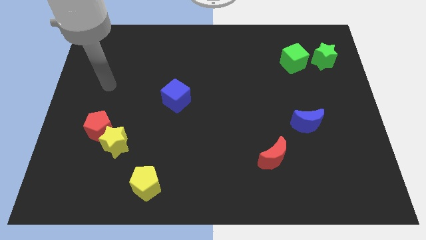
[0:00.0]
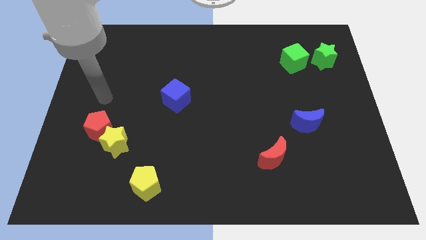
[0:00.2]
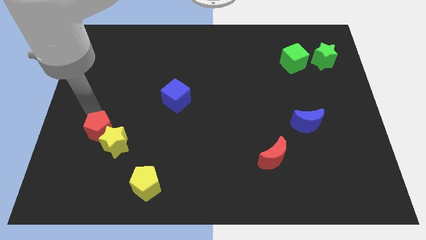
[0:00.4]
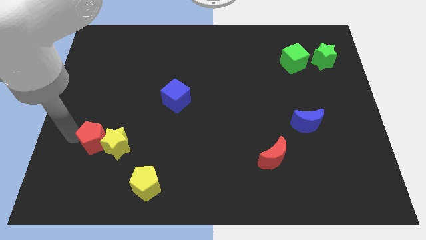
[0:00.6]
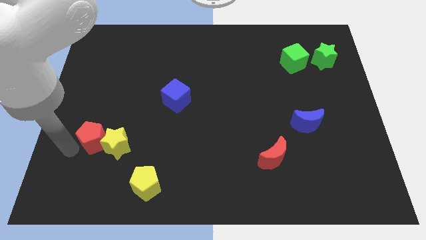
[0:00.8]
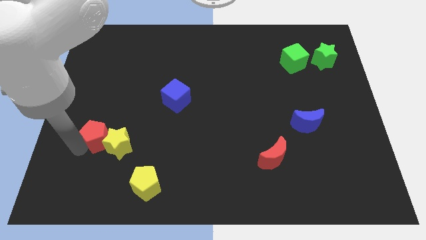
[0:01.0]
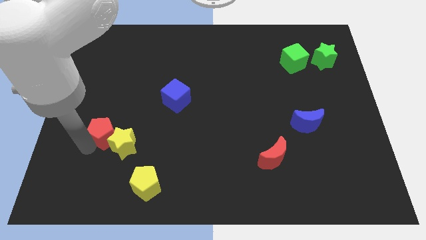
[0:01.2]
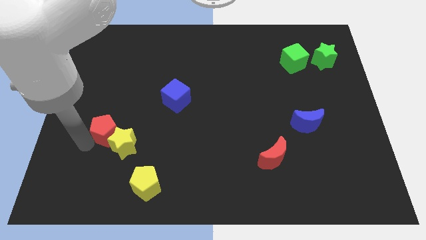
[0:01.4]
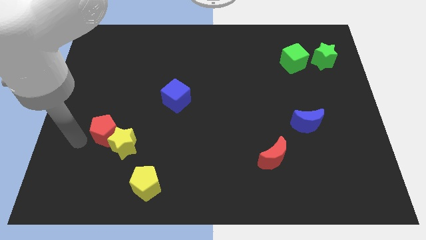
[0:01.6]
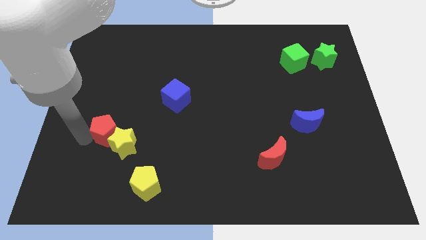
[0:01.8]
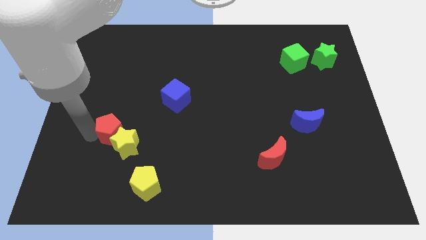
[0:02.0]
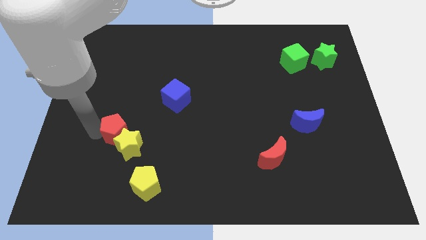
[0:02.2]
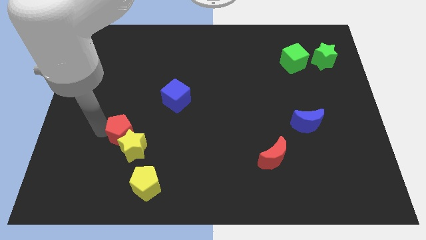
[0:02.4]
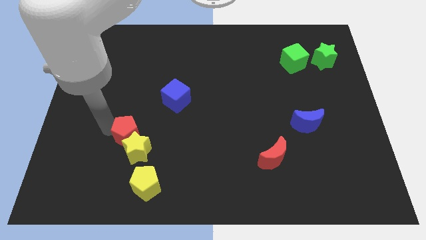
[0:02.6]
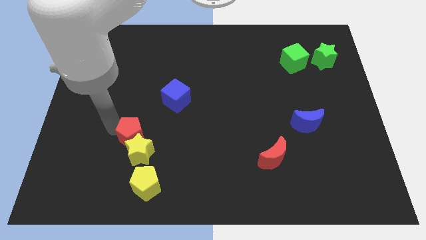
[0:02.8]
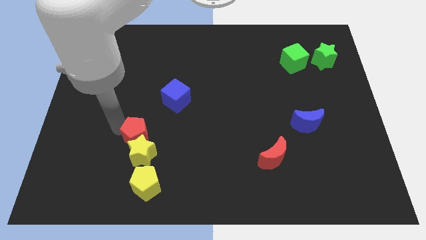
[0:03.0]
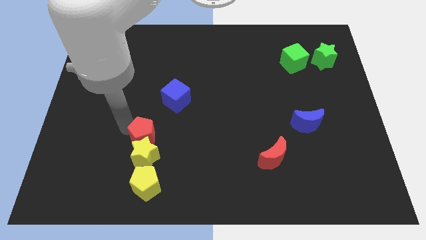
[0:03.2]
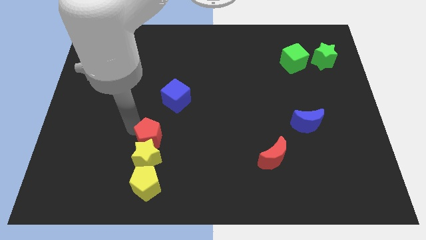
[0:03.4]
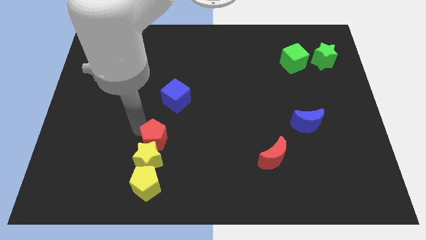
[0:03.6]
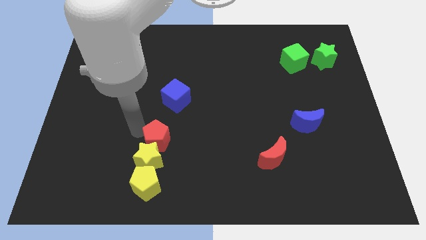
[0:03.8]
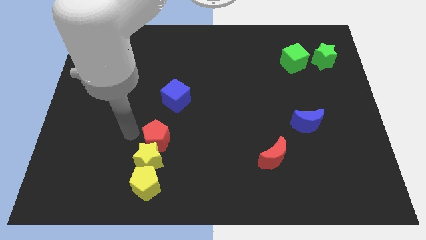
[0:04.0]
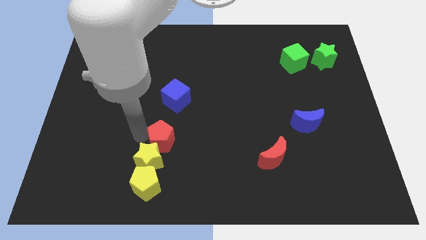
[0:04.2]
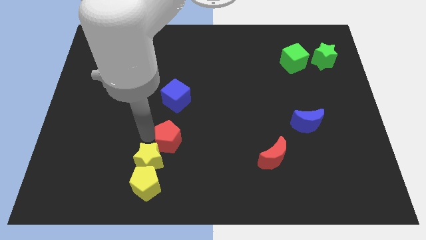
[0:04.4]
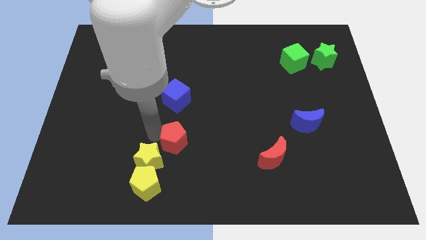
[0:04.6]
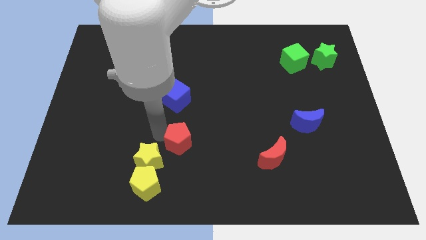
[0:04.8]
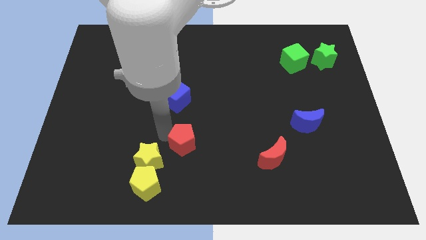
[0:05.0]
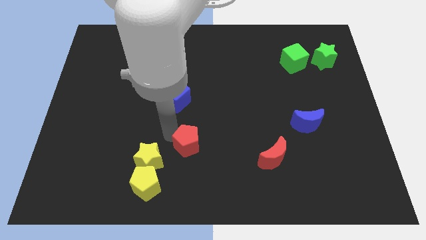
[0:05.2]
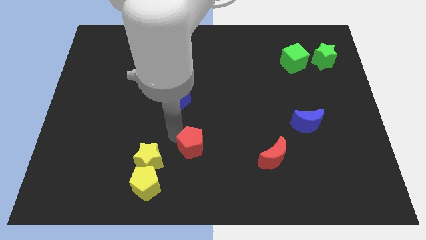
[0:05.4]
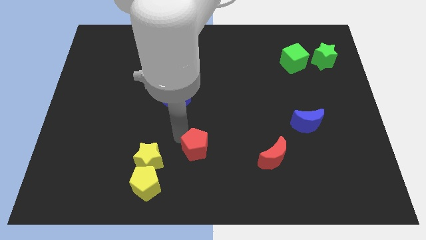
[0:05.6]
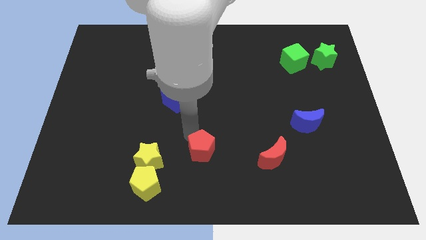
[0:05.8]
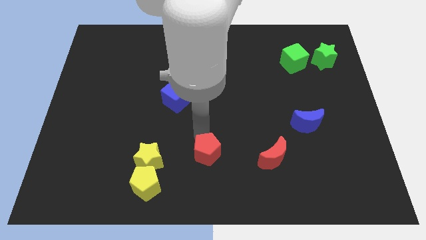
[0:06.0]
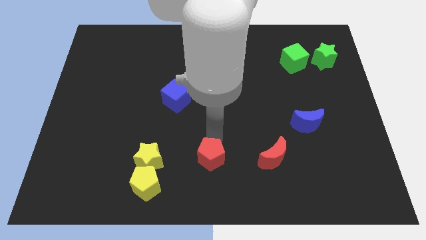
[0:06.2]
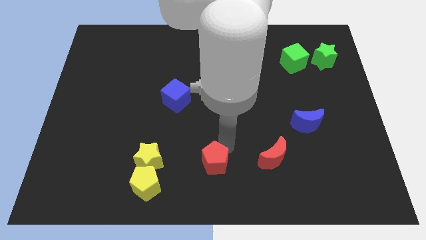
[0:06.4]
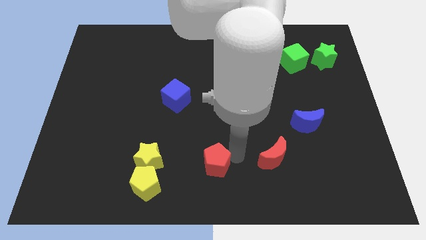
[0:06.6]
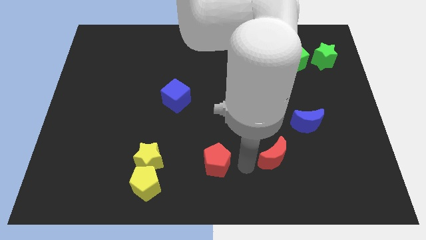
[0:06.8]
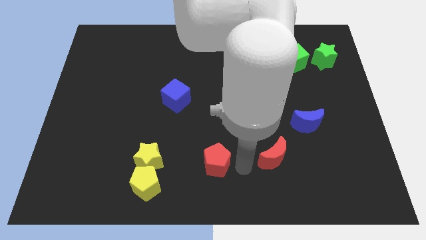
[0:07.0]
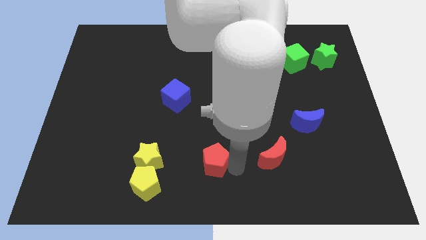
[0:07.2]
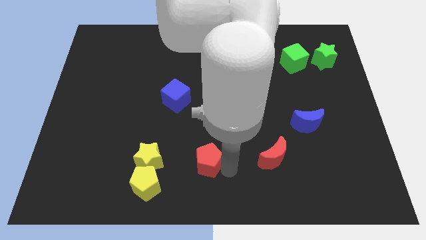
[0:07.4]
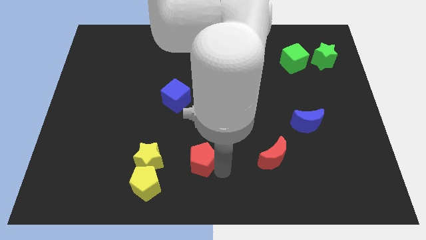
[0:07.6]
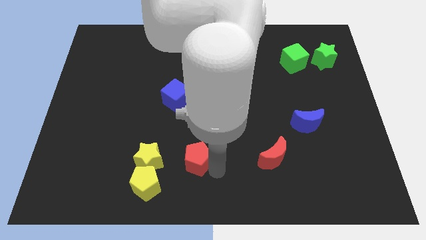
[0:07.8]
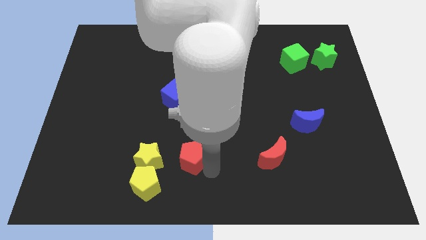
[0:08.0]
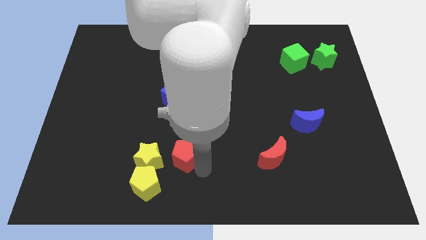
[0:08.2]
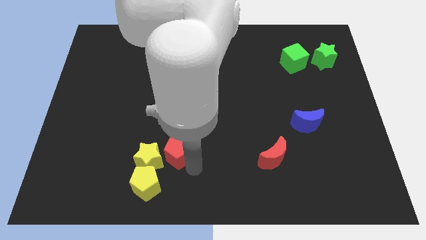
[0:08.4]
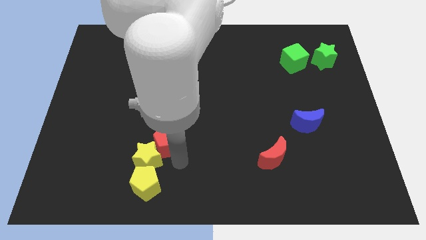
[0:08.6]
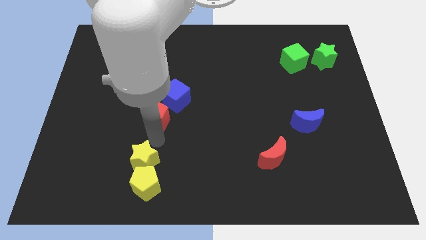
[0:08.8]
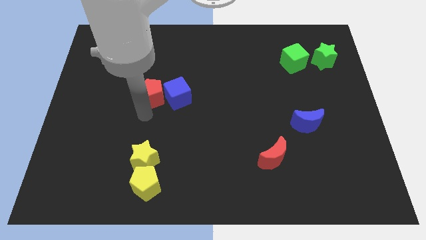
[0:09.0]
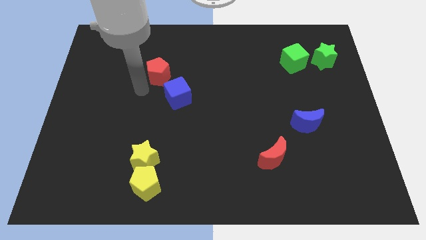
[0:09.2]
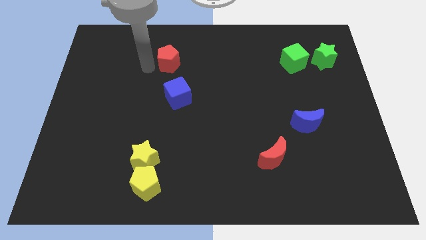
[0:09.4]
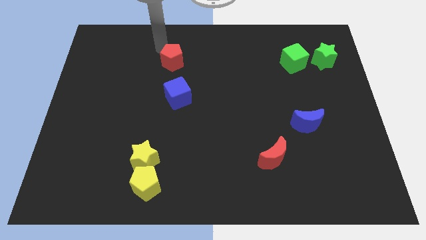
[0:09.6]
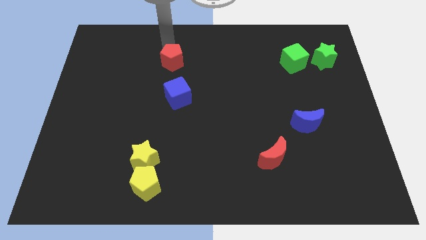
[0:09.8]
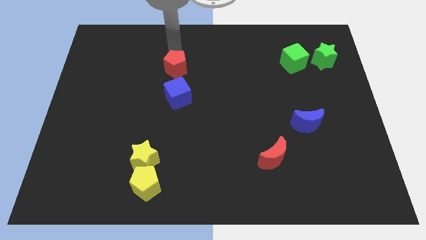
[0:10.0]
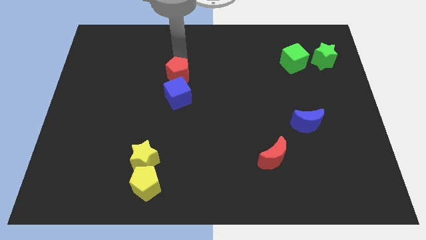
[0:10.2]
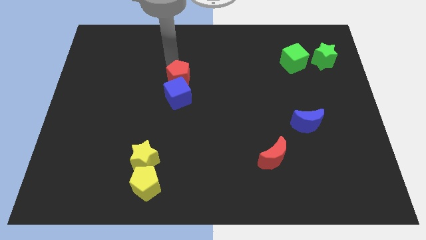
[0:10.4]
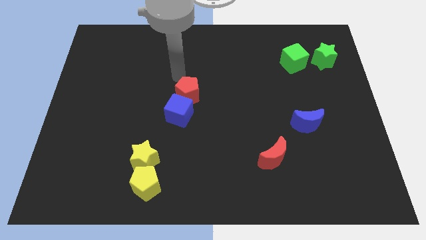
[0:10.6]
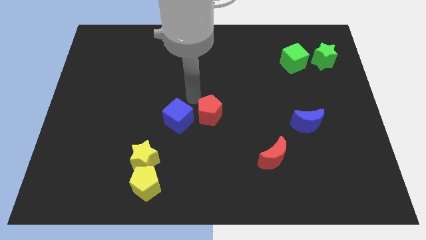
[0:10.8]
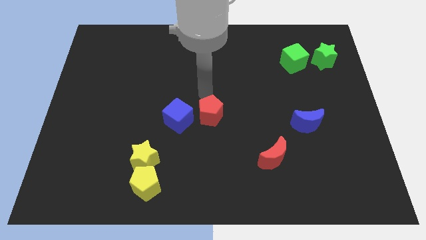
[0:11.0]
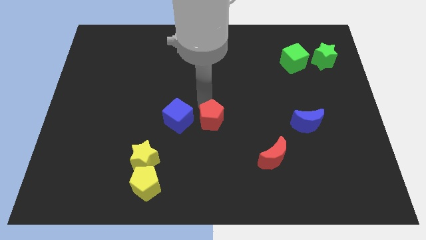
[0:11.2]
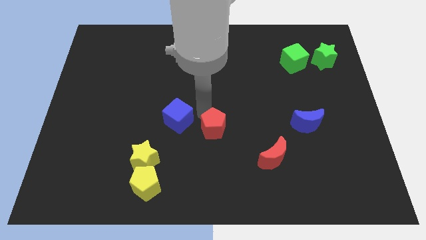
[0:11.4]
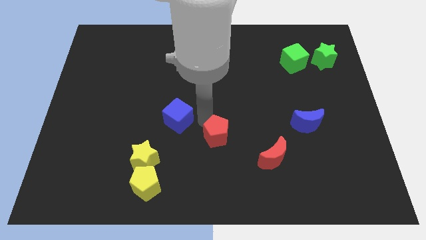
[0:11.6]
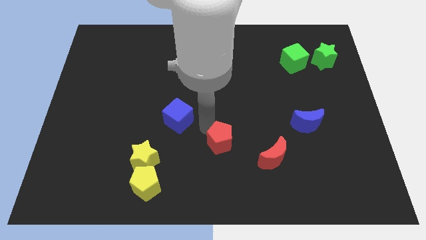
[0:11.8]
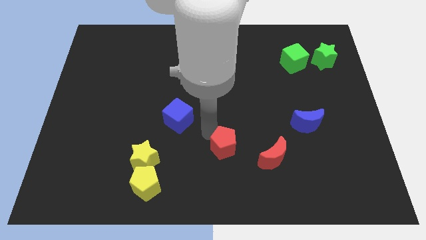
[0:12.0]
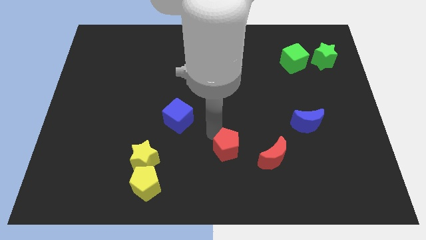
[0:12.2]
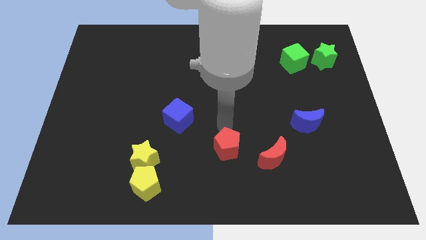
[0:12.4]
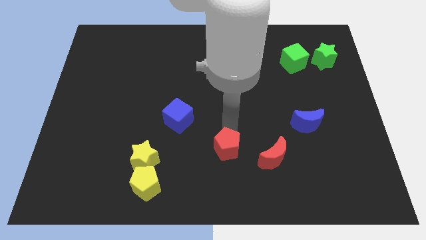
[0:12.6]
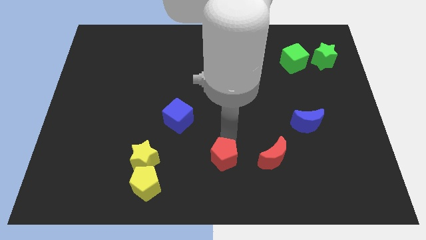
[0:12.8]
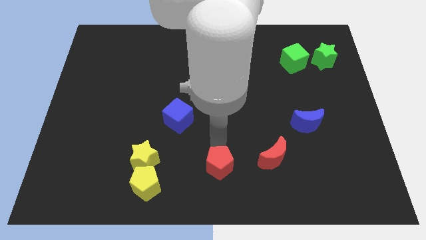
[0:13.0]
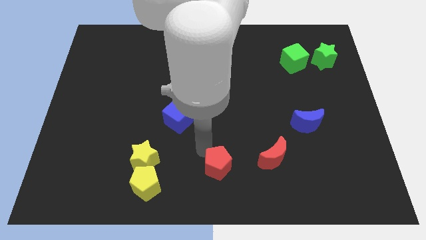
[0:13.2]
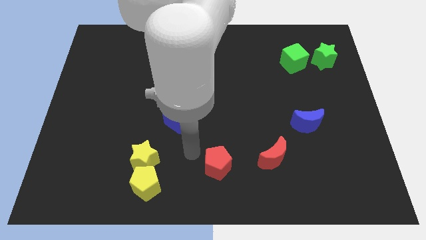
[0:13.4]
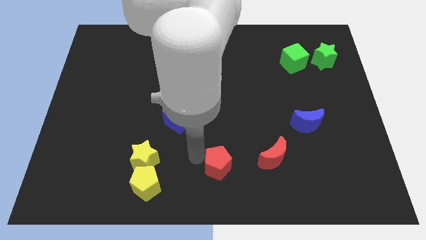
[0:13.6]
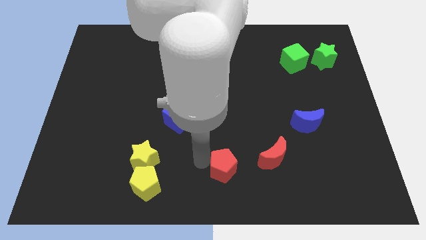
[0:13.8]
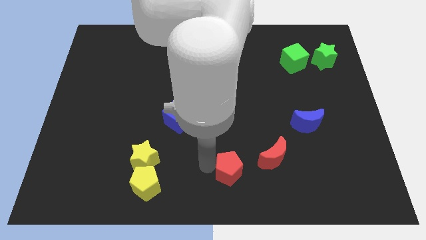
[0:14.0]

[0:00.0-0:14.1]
slide the red pentagon to the bottom left of the red moon

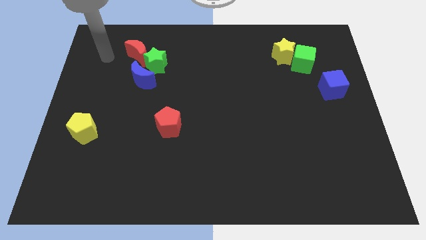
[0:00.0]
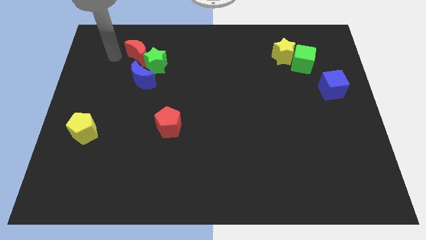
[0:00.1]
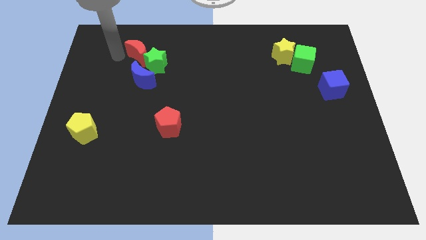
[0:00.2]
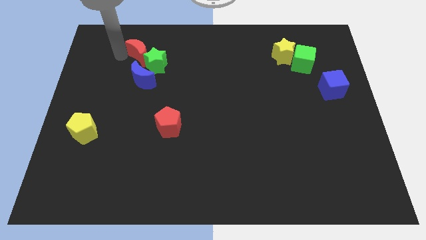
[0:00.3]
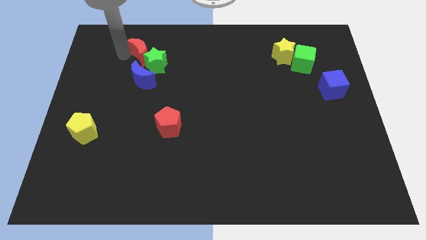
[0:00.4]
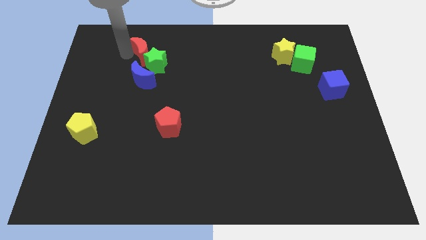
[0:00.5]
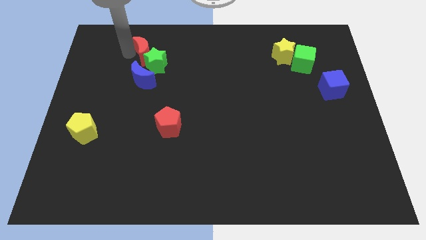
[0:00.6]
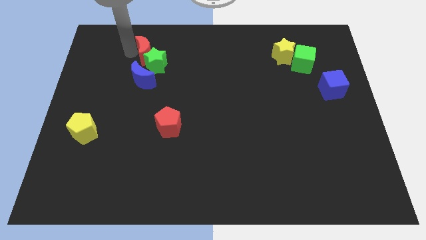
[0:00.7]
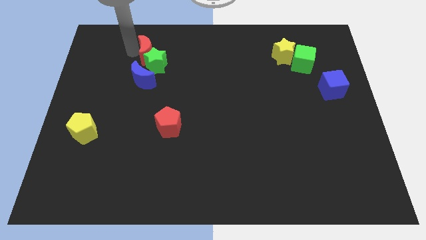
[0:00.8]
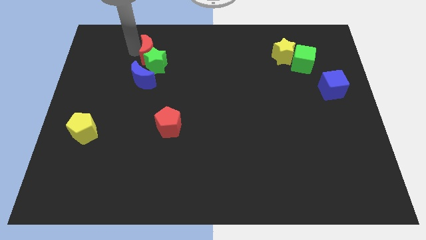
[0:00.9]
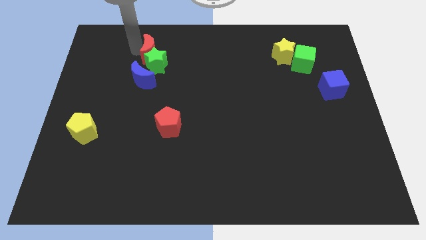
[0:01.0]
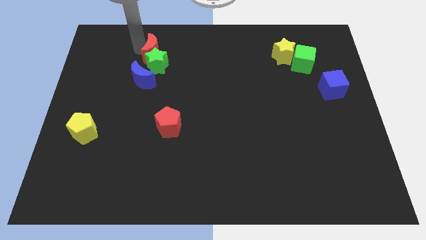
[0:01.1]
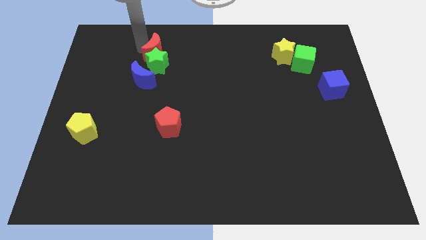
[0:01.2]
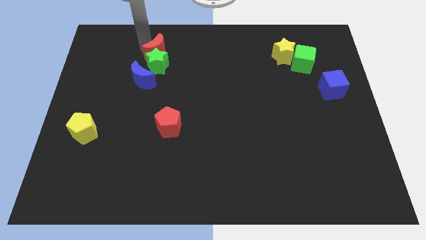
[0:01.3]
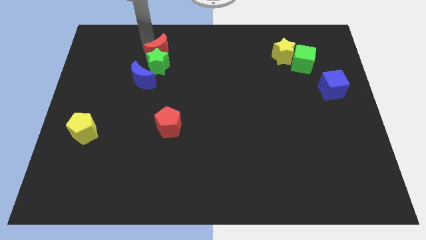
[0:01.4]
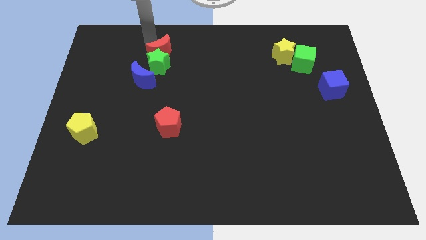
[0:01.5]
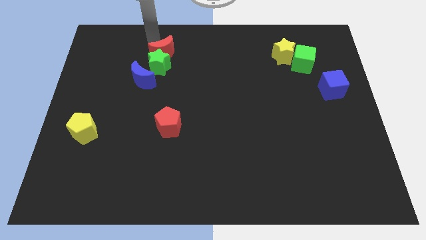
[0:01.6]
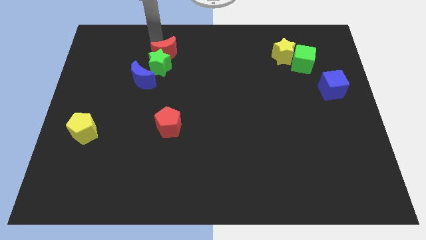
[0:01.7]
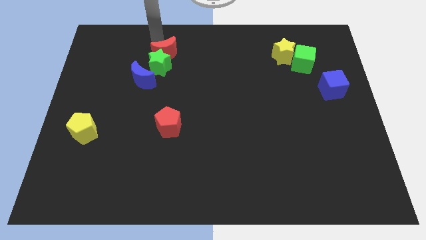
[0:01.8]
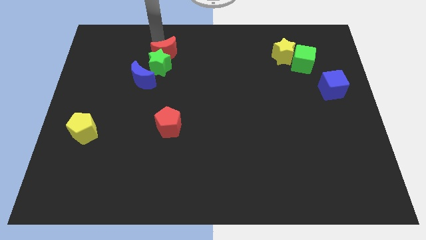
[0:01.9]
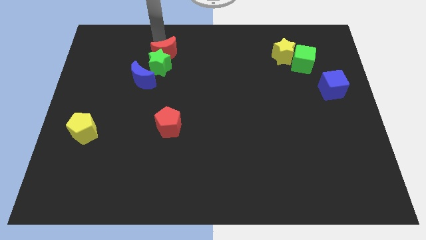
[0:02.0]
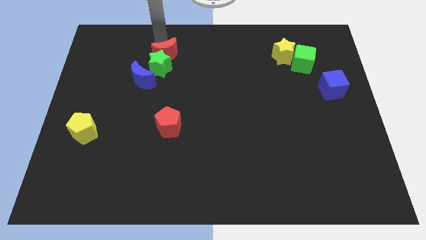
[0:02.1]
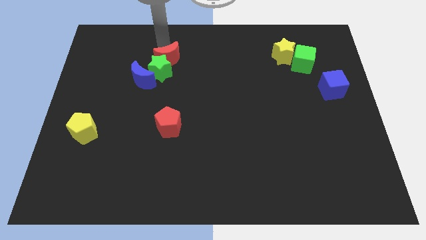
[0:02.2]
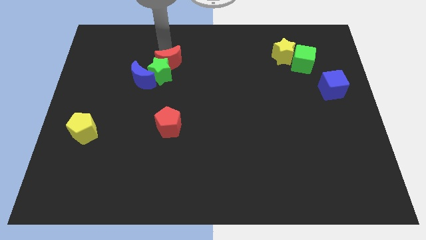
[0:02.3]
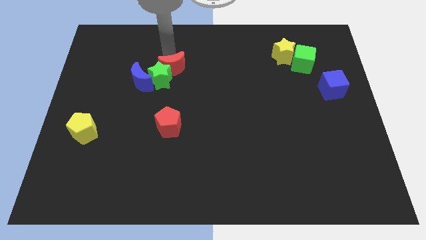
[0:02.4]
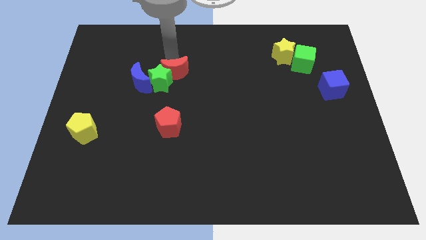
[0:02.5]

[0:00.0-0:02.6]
slide the red moon above the red pentagon
